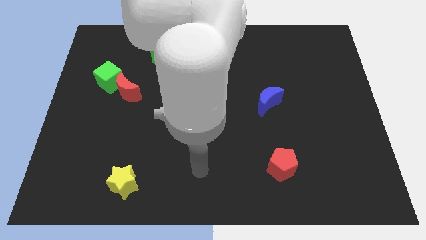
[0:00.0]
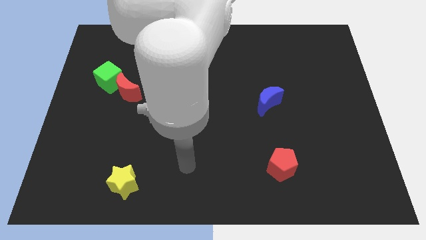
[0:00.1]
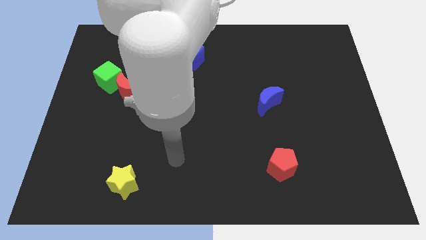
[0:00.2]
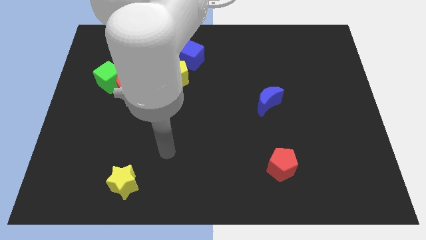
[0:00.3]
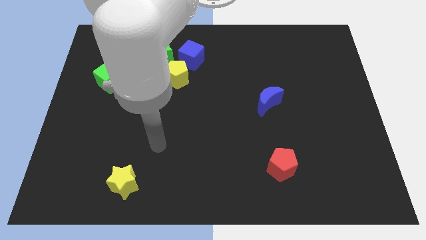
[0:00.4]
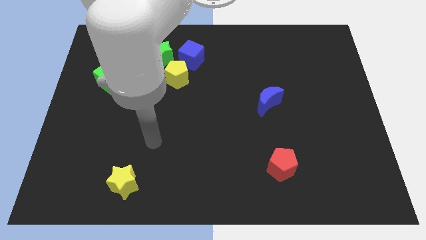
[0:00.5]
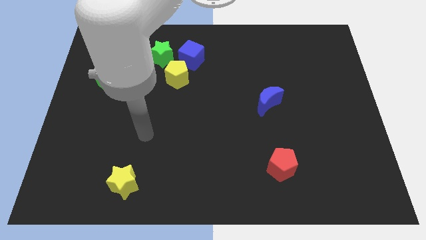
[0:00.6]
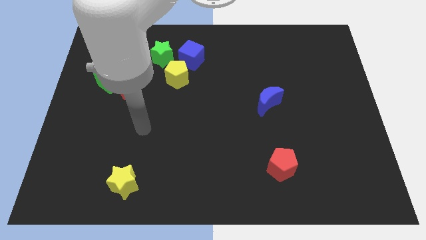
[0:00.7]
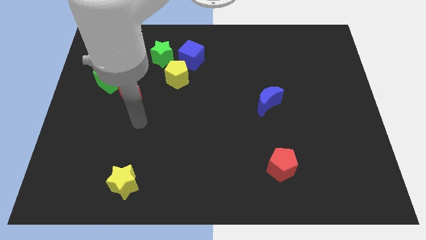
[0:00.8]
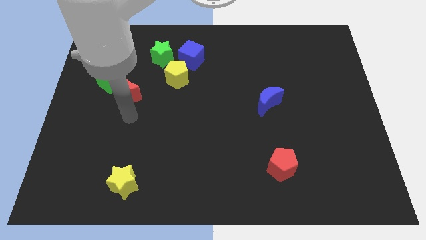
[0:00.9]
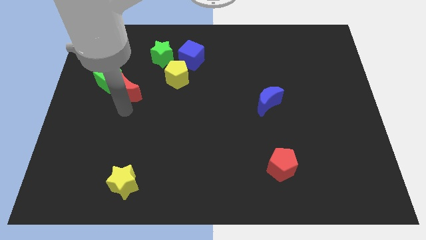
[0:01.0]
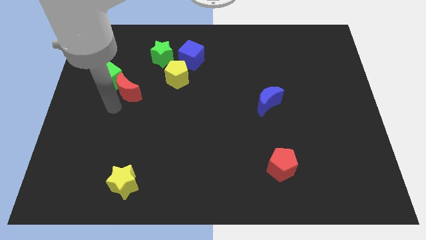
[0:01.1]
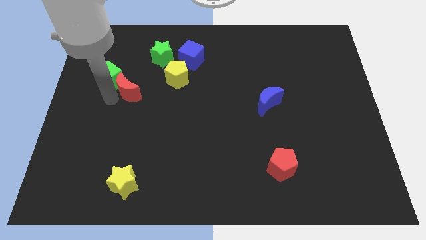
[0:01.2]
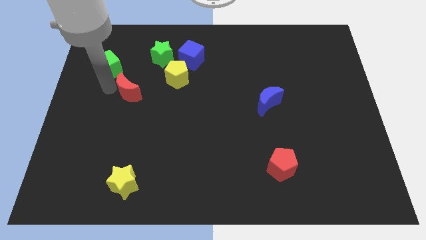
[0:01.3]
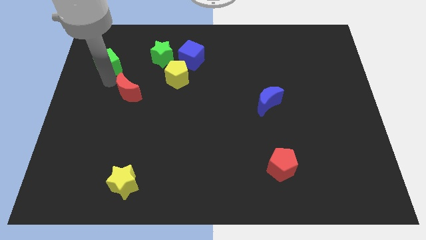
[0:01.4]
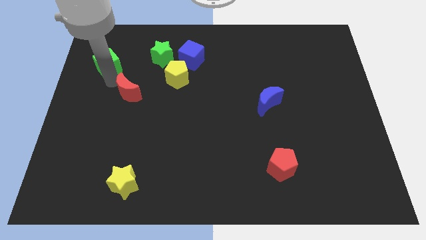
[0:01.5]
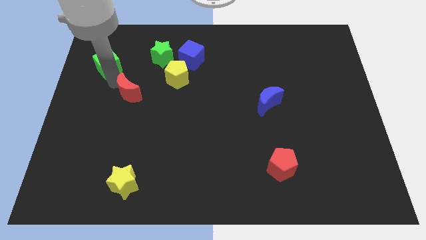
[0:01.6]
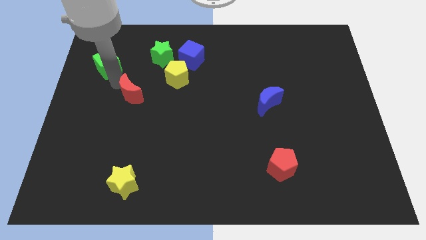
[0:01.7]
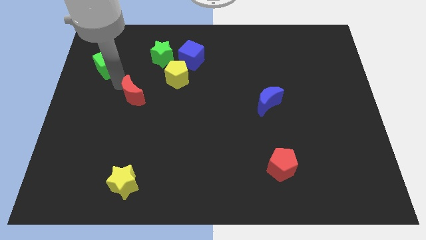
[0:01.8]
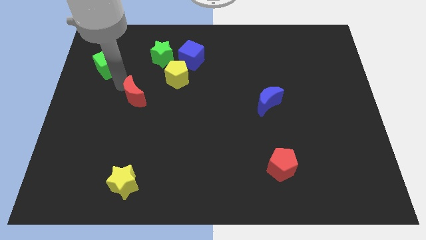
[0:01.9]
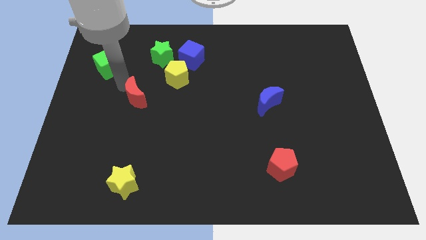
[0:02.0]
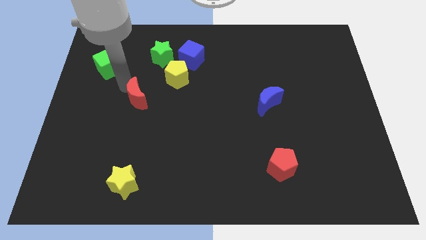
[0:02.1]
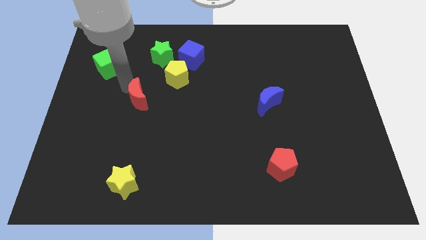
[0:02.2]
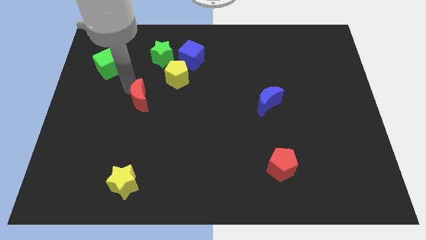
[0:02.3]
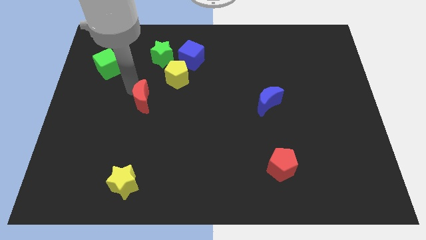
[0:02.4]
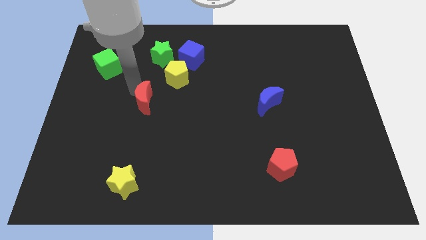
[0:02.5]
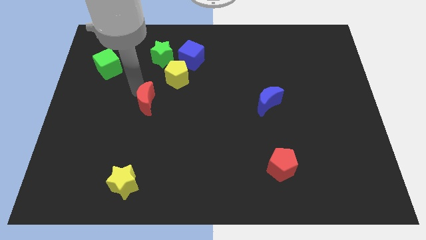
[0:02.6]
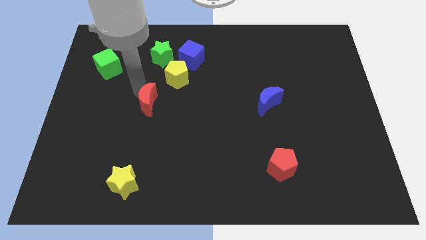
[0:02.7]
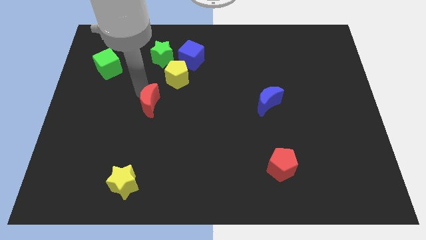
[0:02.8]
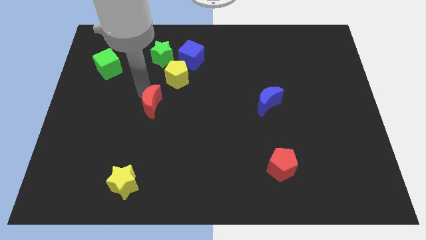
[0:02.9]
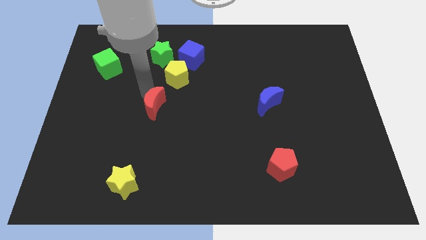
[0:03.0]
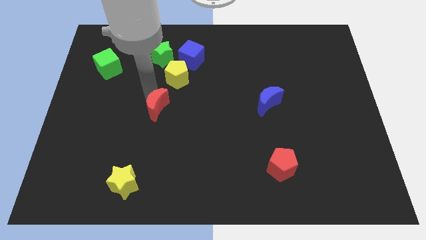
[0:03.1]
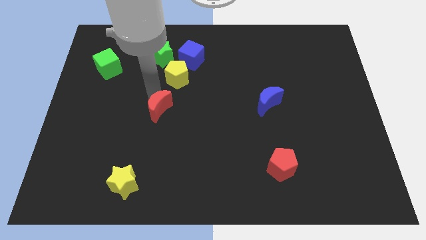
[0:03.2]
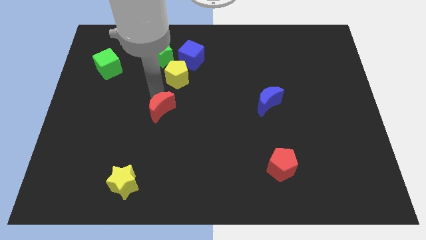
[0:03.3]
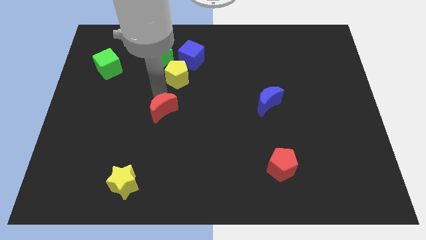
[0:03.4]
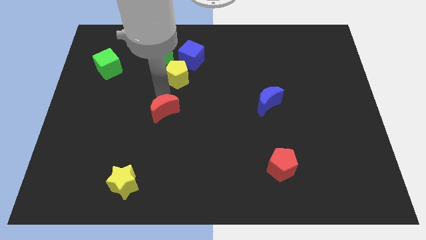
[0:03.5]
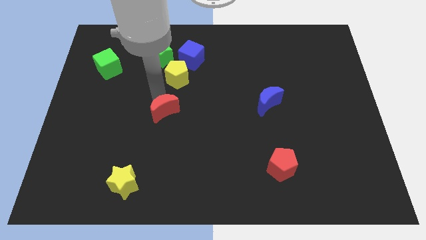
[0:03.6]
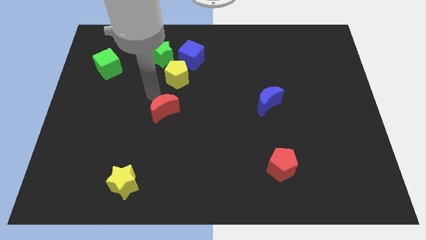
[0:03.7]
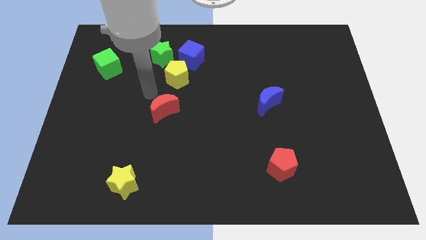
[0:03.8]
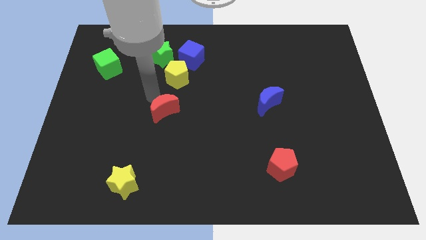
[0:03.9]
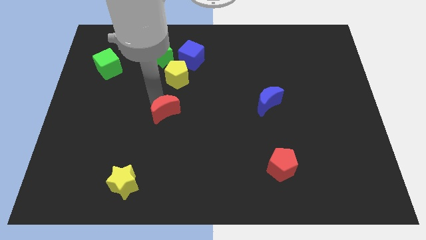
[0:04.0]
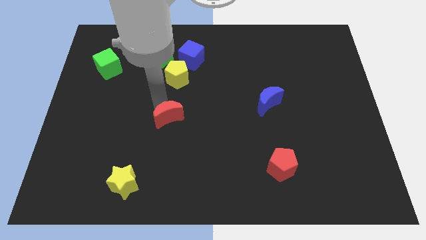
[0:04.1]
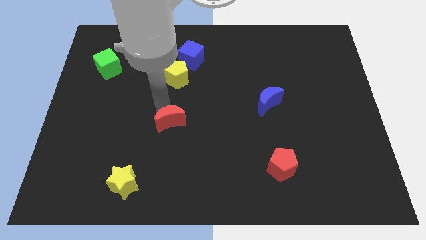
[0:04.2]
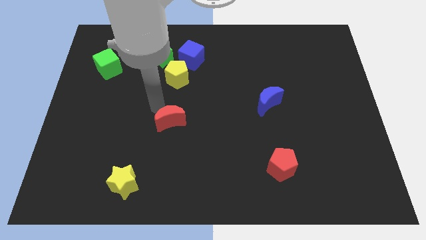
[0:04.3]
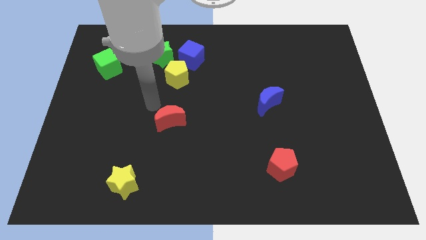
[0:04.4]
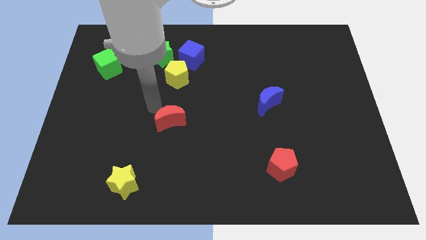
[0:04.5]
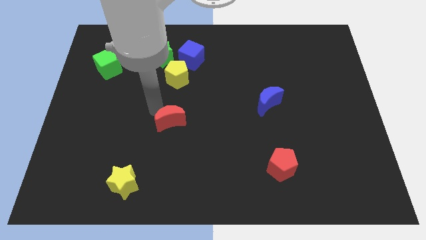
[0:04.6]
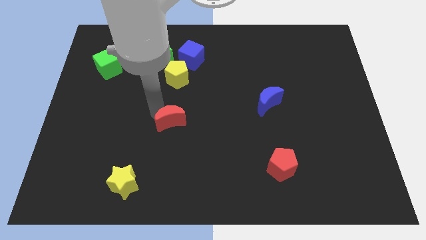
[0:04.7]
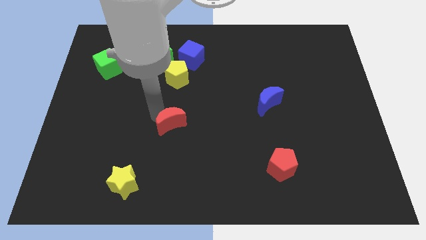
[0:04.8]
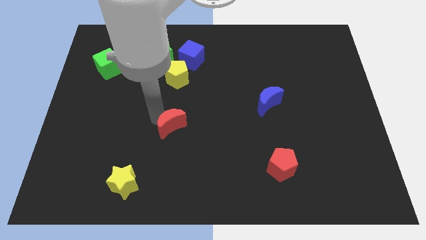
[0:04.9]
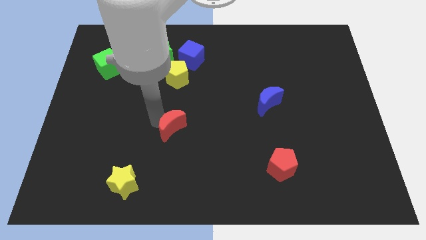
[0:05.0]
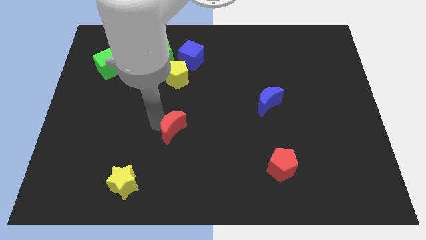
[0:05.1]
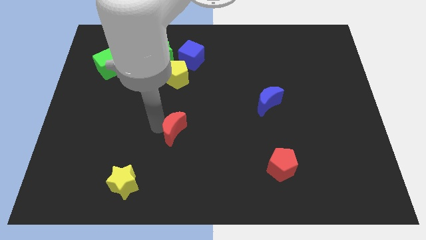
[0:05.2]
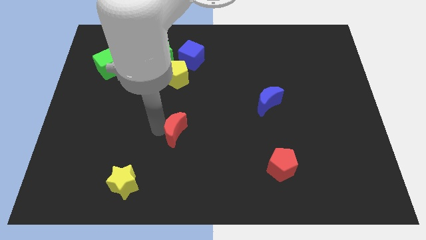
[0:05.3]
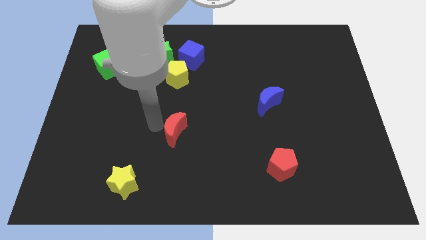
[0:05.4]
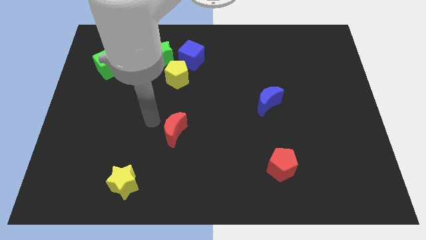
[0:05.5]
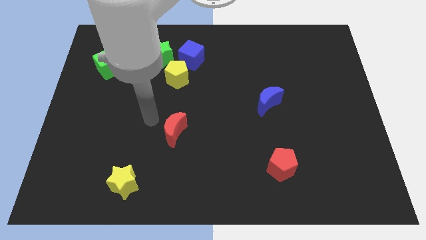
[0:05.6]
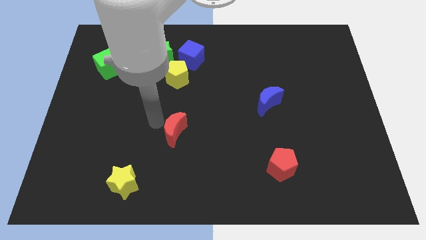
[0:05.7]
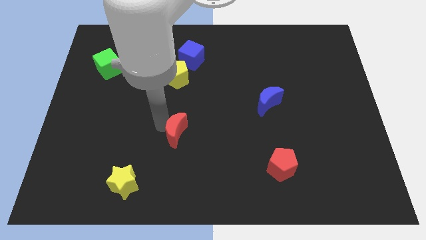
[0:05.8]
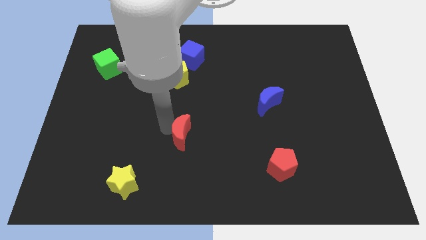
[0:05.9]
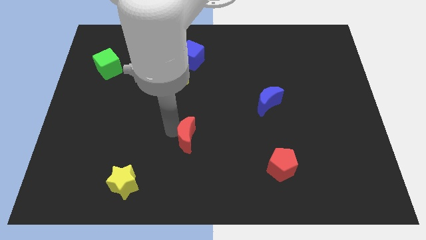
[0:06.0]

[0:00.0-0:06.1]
move the red moon down and then right

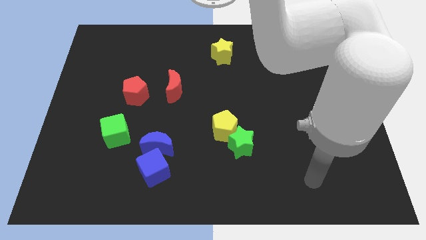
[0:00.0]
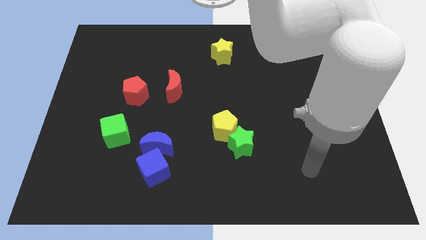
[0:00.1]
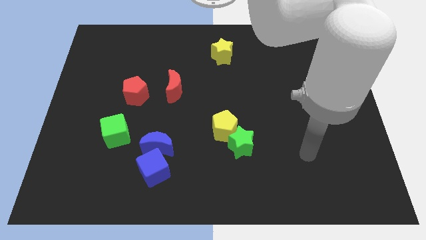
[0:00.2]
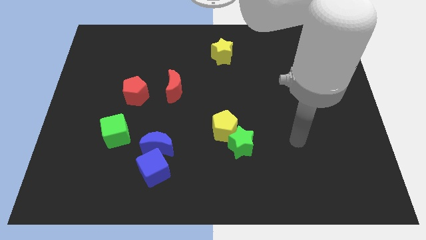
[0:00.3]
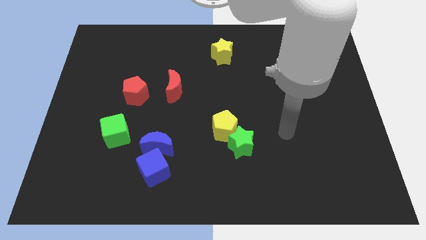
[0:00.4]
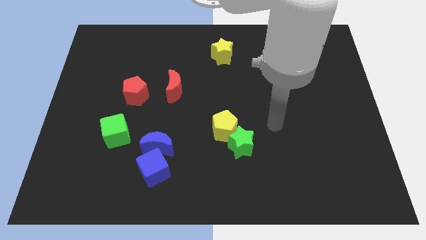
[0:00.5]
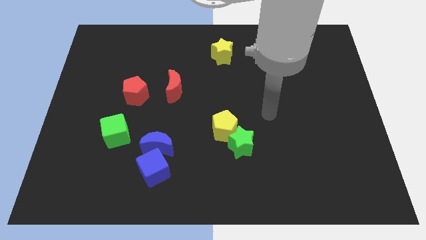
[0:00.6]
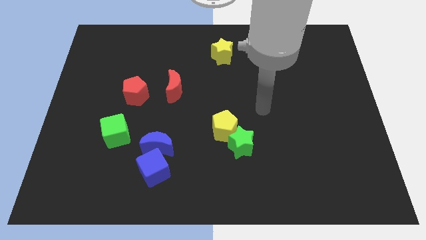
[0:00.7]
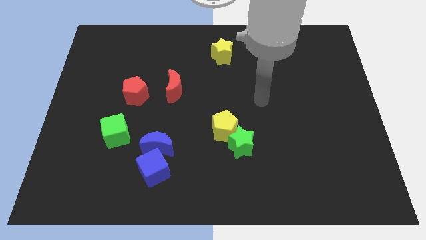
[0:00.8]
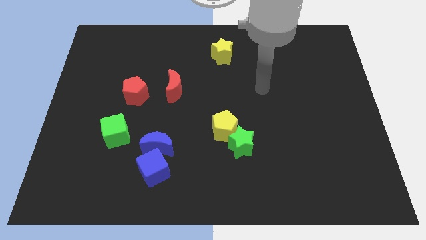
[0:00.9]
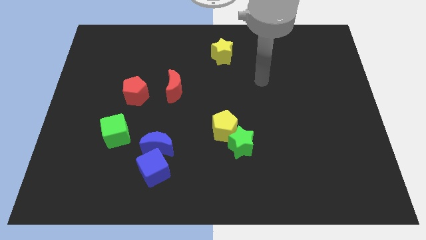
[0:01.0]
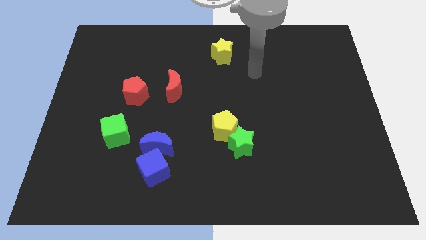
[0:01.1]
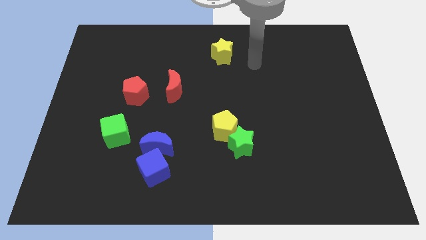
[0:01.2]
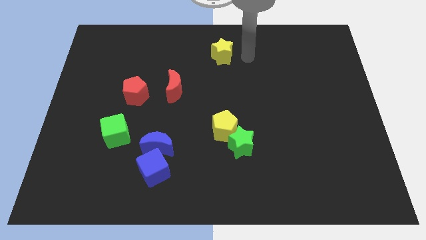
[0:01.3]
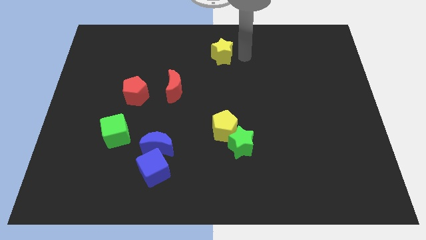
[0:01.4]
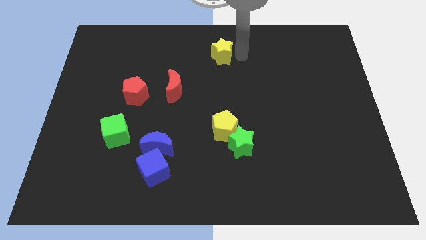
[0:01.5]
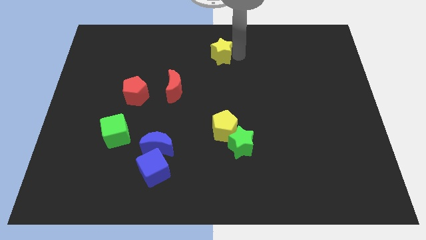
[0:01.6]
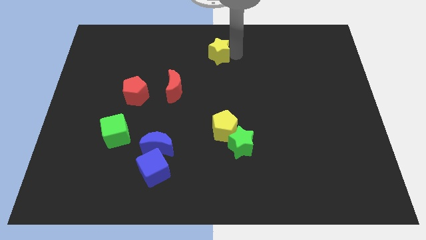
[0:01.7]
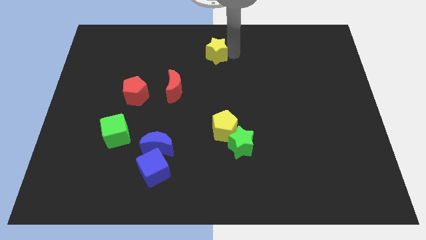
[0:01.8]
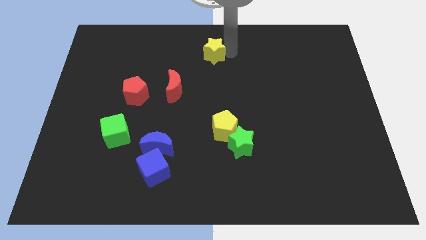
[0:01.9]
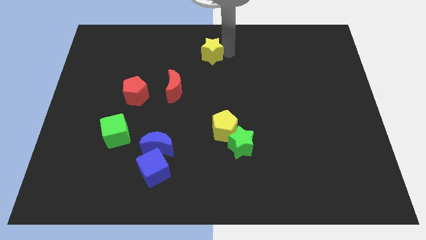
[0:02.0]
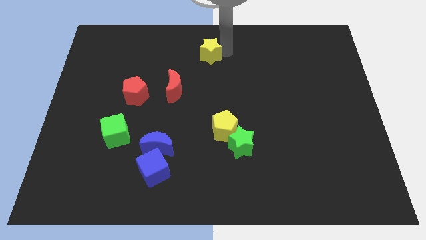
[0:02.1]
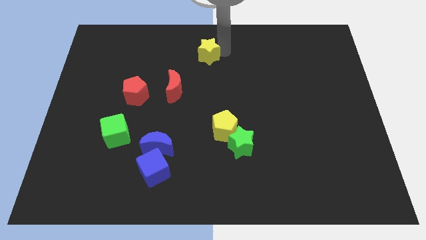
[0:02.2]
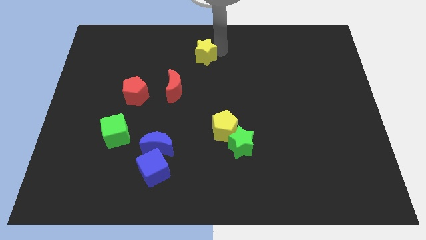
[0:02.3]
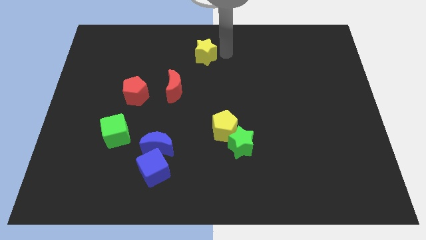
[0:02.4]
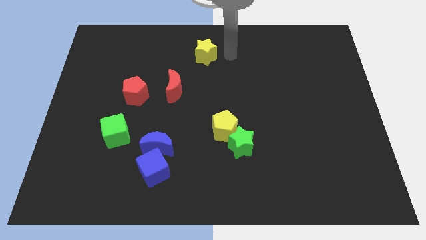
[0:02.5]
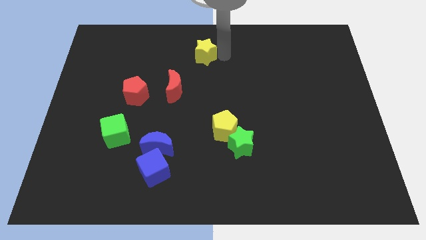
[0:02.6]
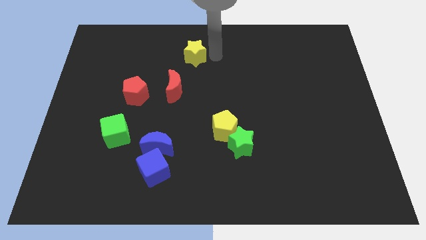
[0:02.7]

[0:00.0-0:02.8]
slightly move the yellow star to the left
